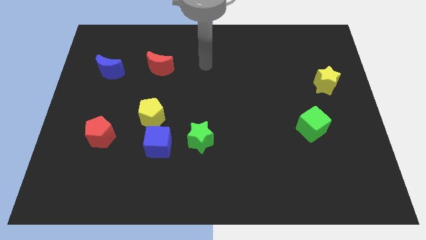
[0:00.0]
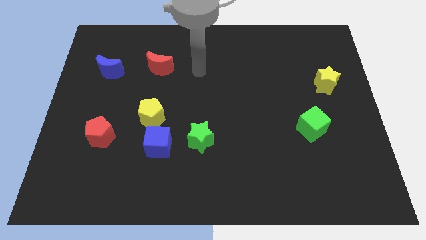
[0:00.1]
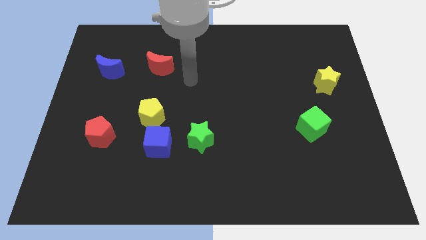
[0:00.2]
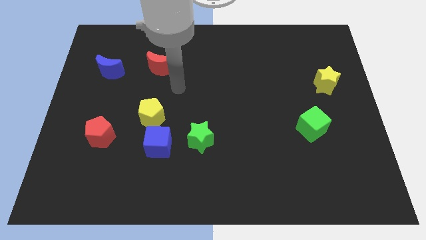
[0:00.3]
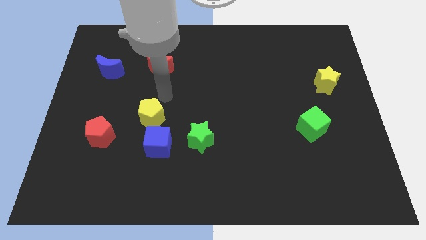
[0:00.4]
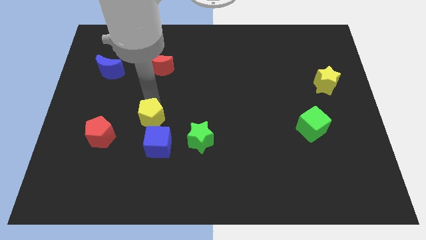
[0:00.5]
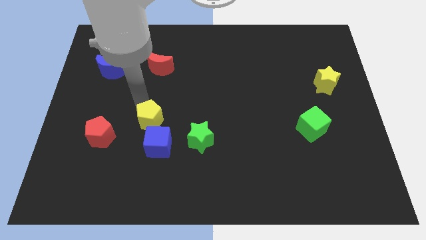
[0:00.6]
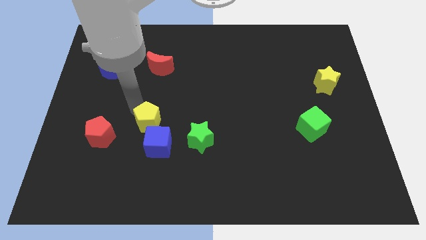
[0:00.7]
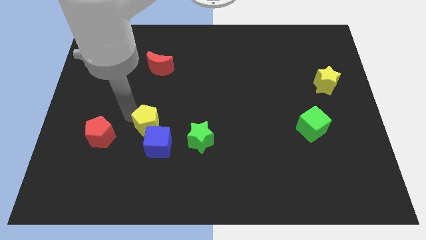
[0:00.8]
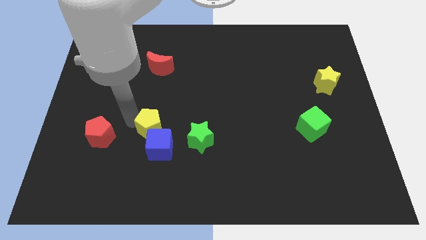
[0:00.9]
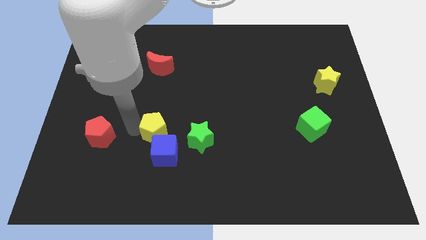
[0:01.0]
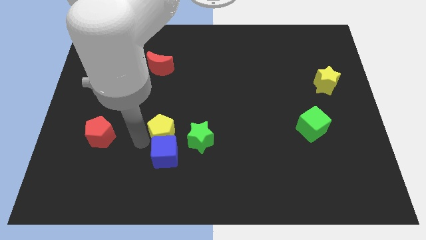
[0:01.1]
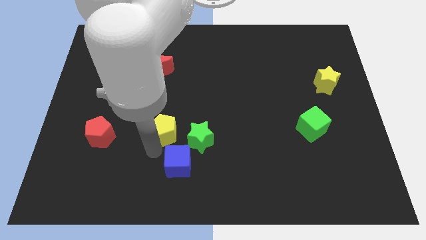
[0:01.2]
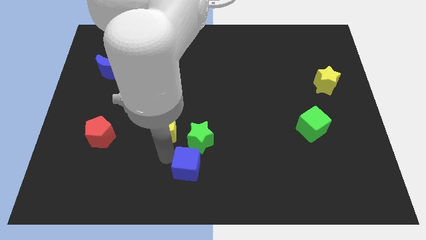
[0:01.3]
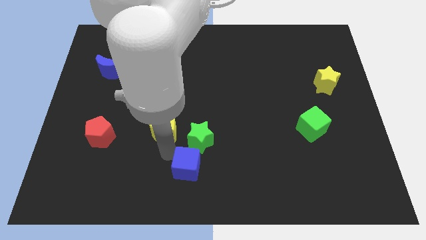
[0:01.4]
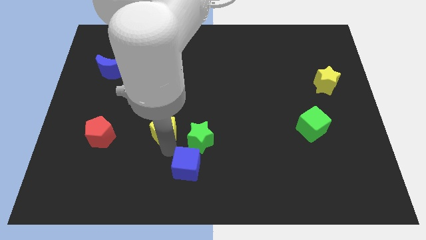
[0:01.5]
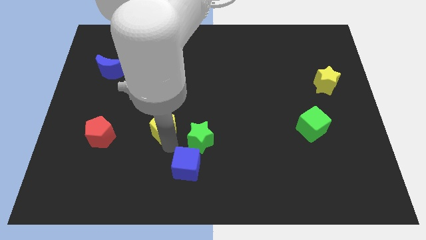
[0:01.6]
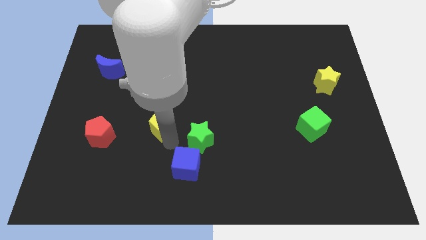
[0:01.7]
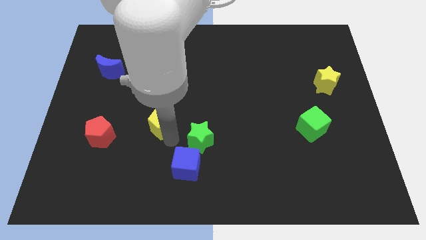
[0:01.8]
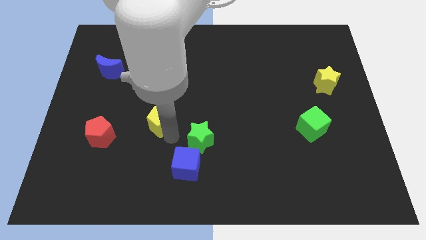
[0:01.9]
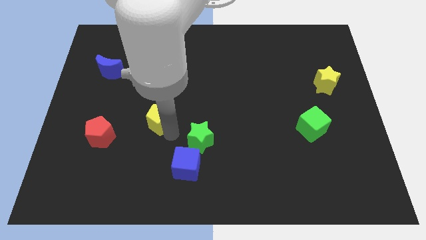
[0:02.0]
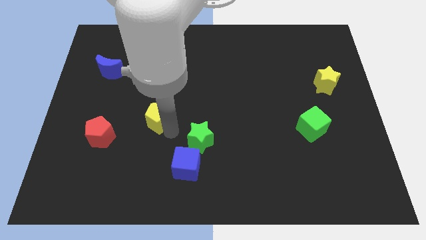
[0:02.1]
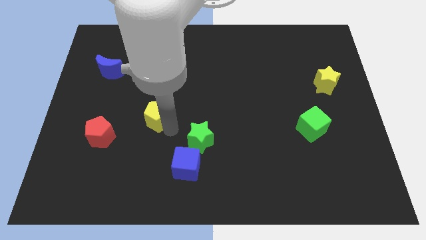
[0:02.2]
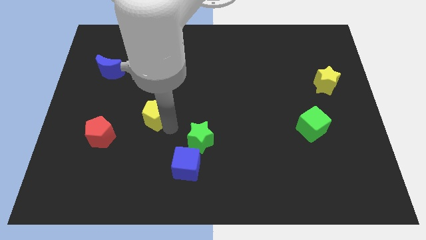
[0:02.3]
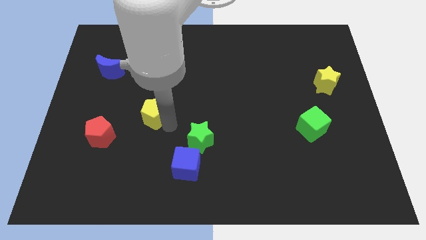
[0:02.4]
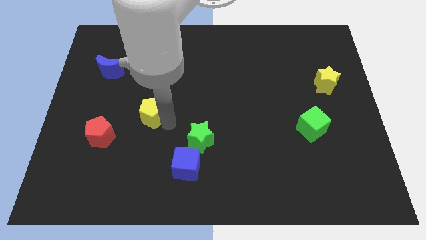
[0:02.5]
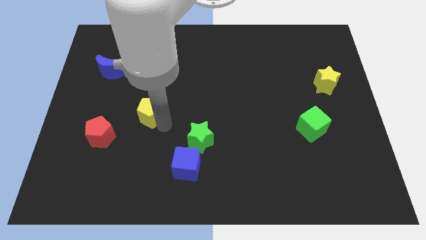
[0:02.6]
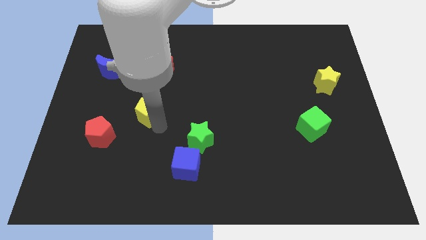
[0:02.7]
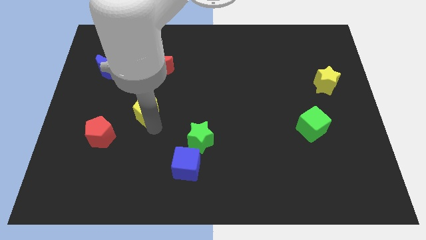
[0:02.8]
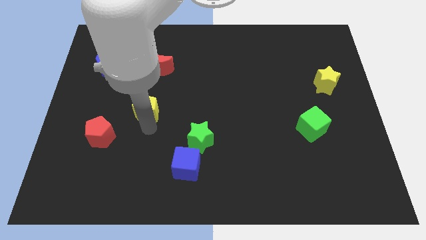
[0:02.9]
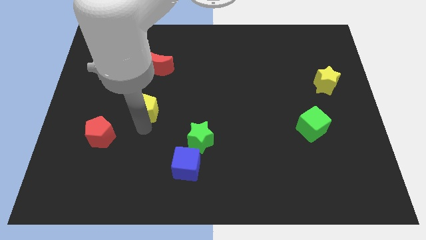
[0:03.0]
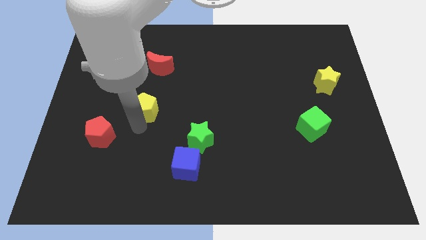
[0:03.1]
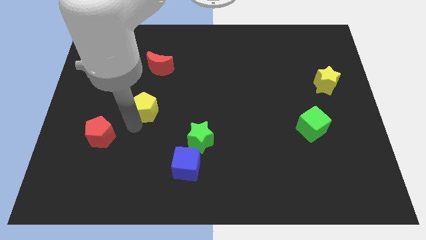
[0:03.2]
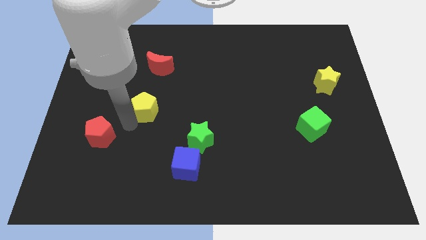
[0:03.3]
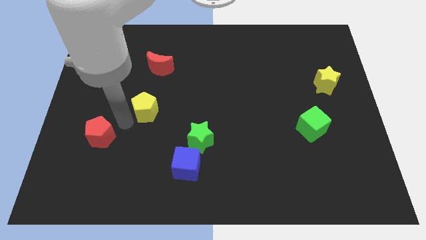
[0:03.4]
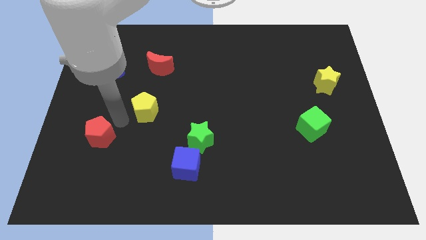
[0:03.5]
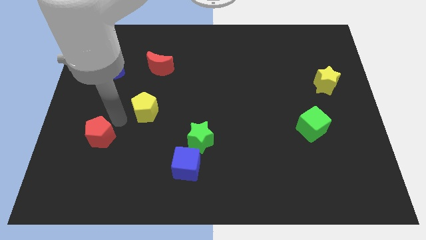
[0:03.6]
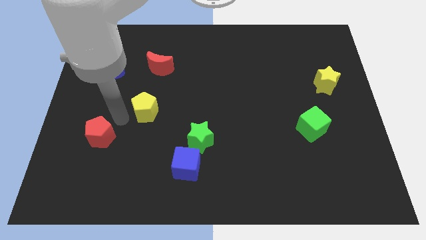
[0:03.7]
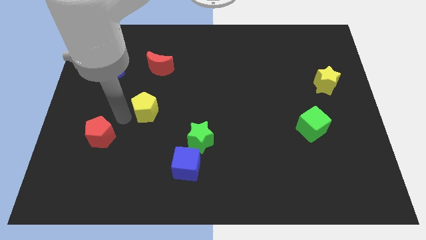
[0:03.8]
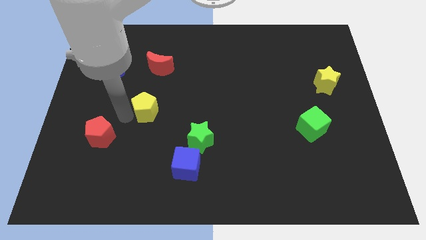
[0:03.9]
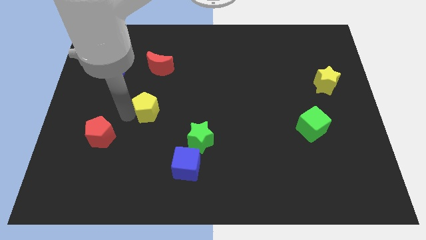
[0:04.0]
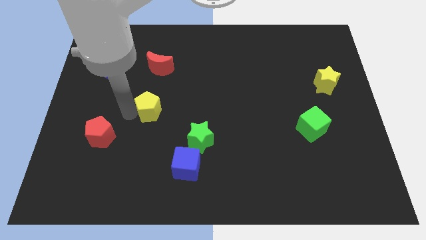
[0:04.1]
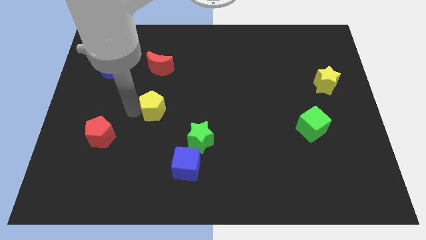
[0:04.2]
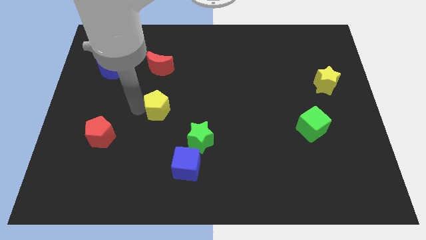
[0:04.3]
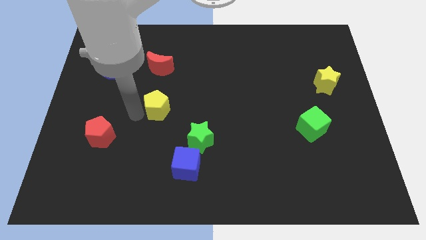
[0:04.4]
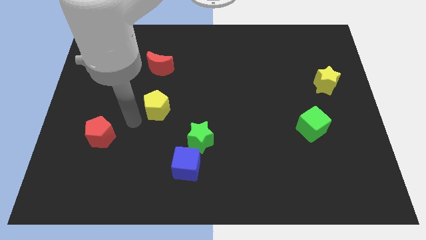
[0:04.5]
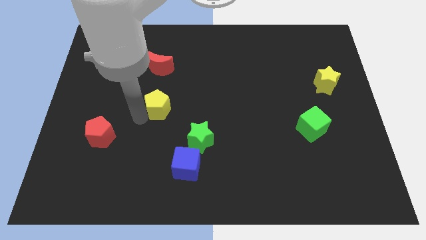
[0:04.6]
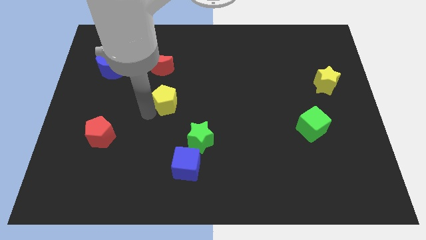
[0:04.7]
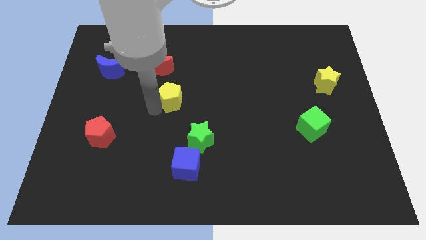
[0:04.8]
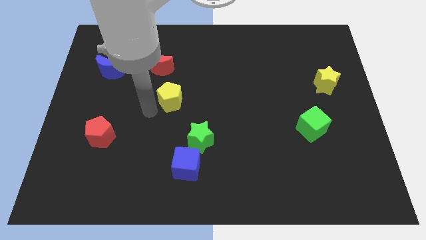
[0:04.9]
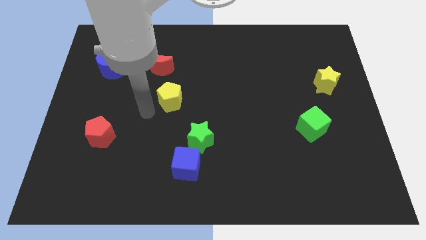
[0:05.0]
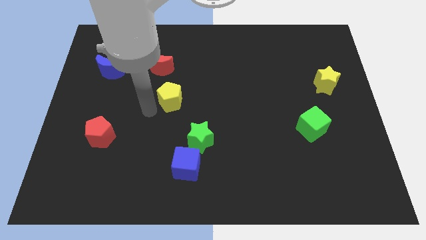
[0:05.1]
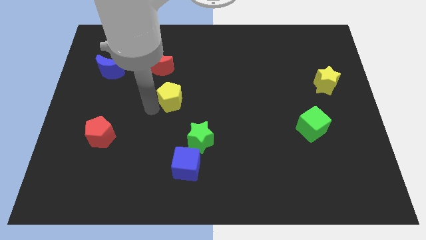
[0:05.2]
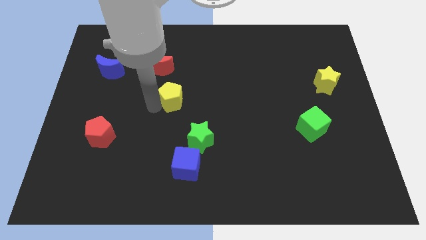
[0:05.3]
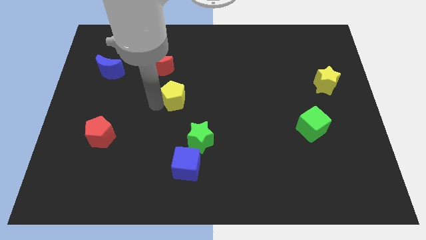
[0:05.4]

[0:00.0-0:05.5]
push the yellow pentagon somewhat upwards and then right

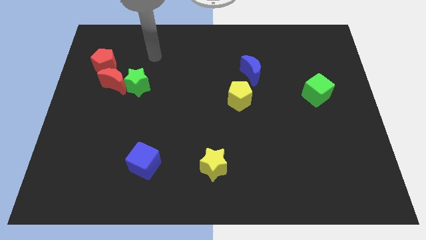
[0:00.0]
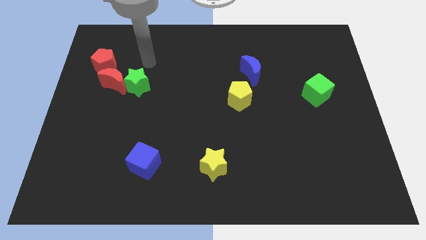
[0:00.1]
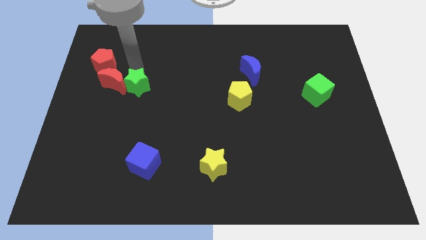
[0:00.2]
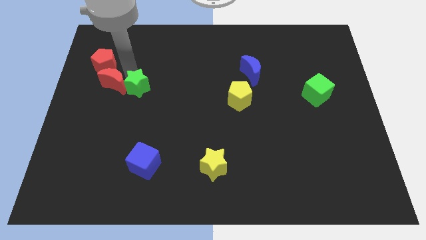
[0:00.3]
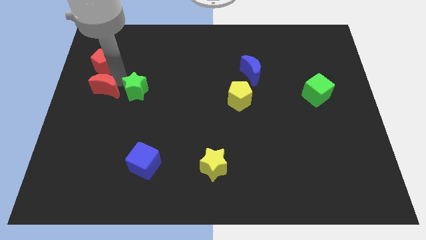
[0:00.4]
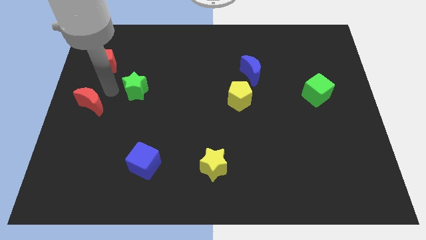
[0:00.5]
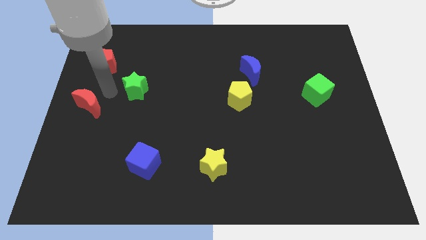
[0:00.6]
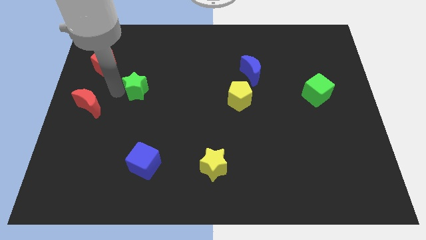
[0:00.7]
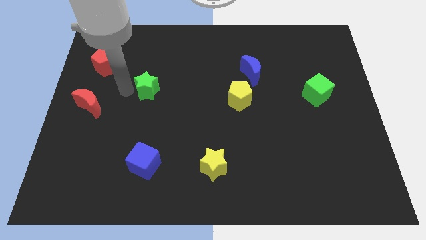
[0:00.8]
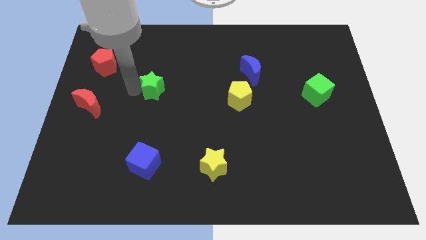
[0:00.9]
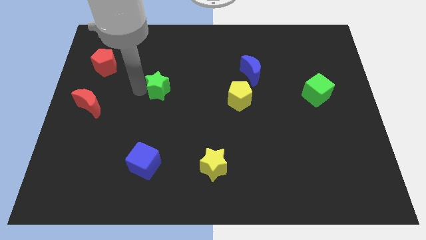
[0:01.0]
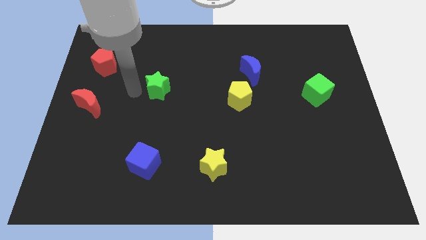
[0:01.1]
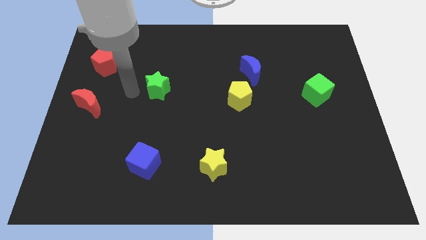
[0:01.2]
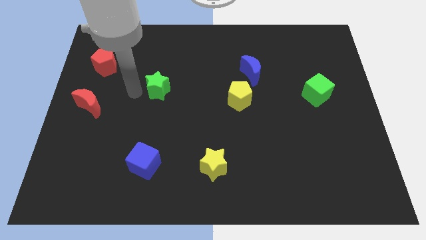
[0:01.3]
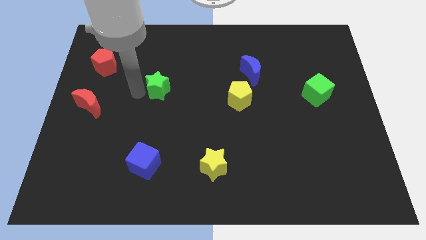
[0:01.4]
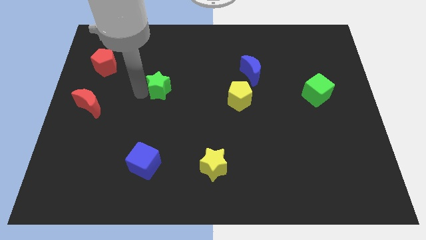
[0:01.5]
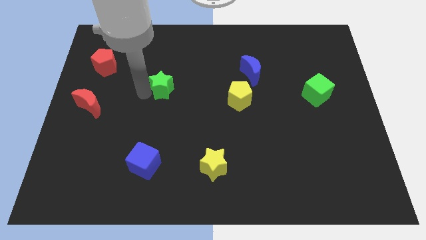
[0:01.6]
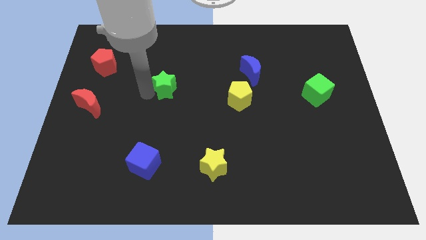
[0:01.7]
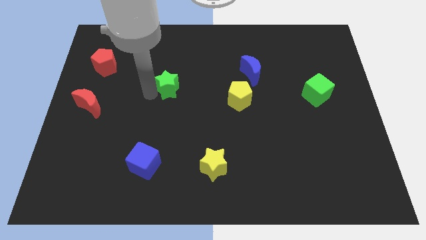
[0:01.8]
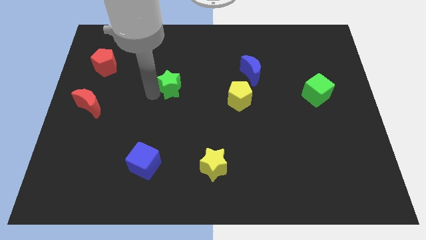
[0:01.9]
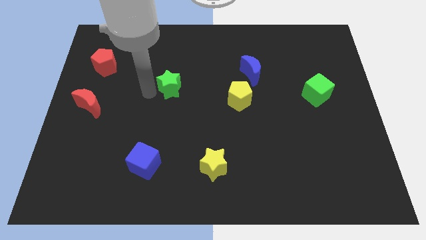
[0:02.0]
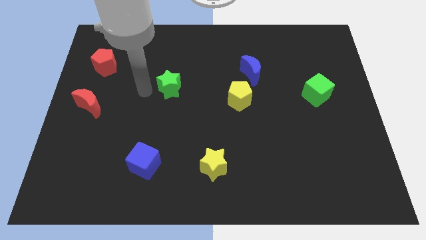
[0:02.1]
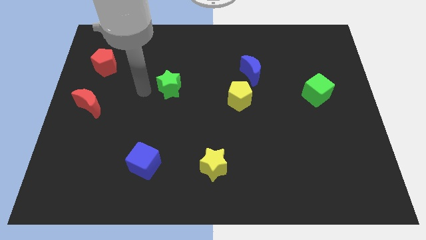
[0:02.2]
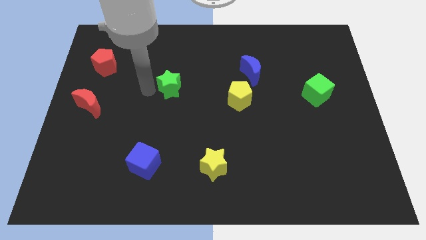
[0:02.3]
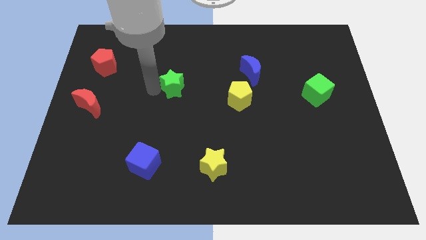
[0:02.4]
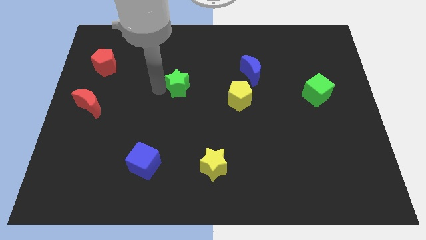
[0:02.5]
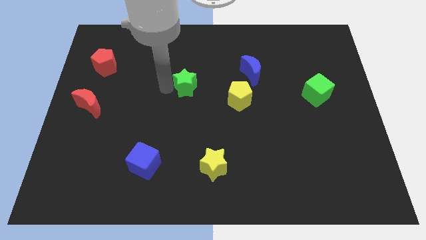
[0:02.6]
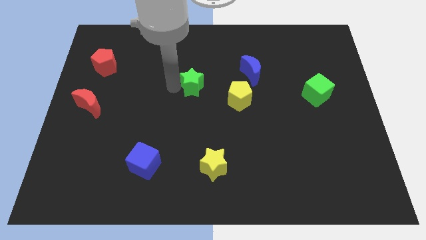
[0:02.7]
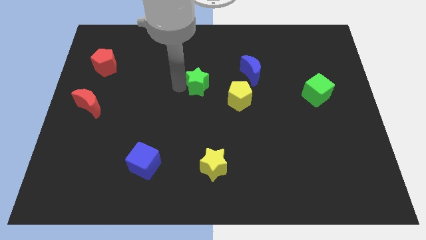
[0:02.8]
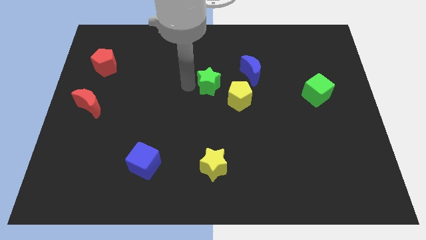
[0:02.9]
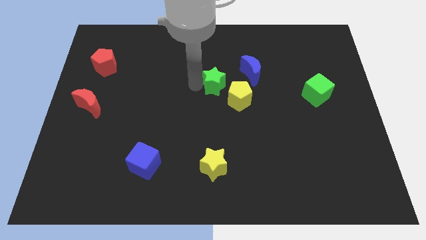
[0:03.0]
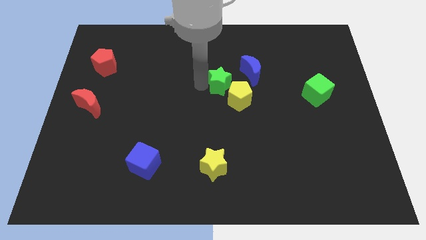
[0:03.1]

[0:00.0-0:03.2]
move the green star right
